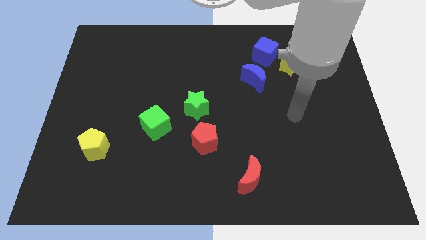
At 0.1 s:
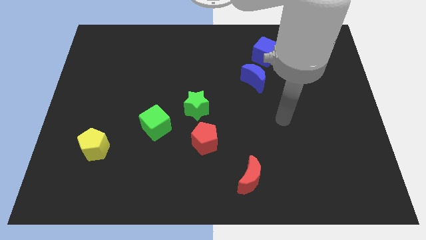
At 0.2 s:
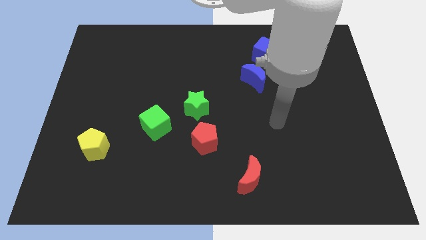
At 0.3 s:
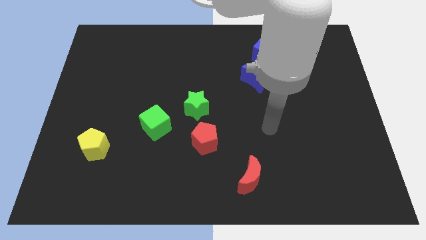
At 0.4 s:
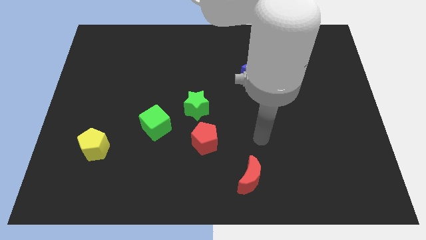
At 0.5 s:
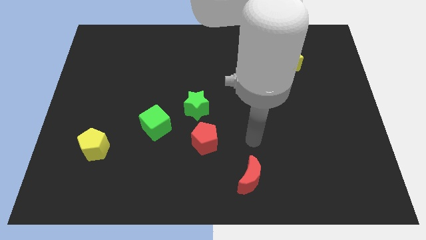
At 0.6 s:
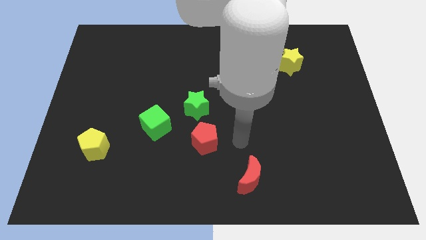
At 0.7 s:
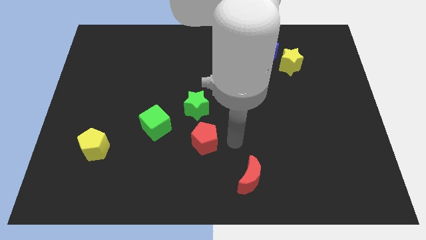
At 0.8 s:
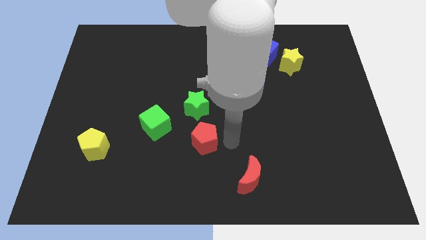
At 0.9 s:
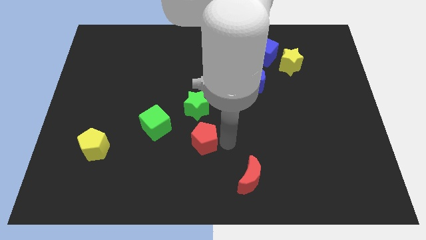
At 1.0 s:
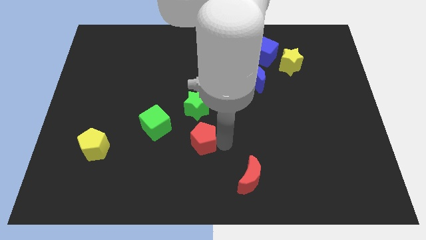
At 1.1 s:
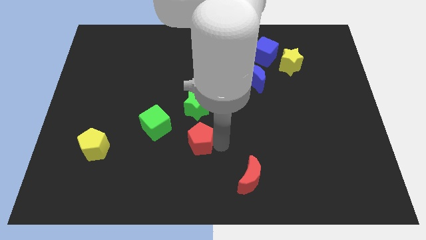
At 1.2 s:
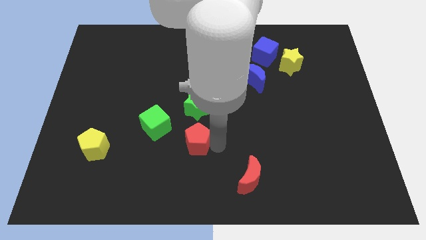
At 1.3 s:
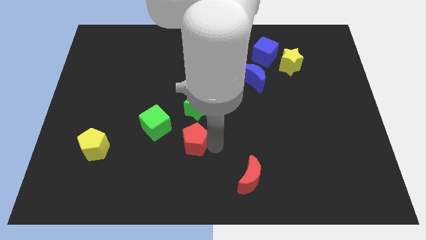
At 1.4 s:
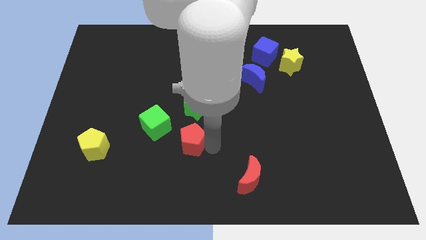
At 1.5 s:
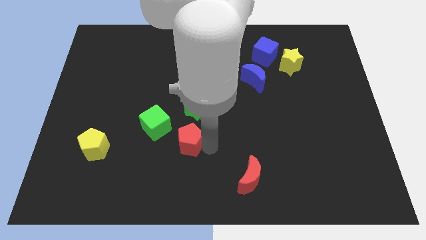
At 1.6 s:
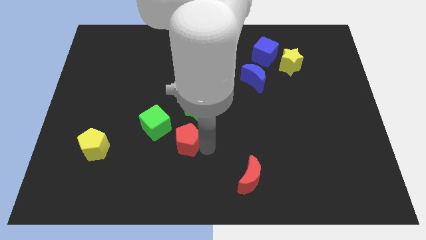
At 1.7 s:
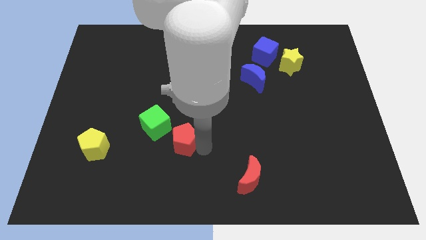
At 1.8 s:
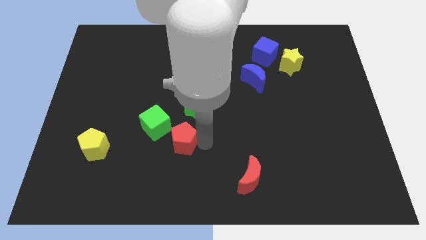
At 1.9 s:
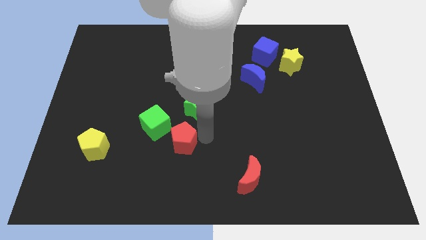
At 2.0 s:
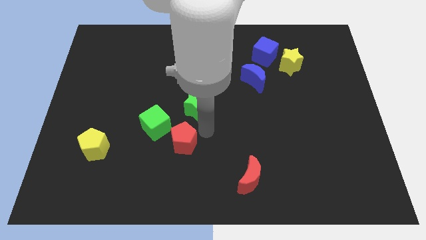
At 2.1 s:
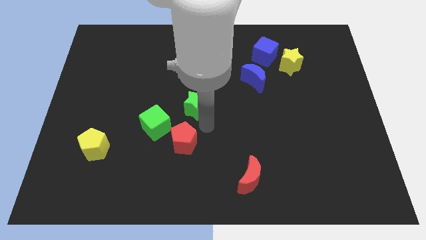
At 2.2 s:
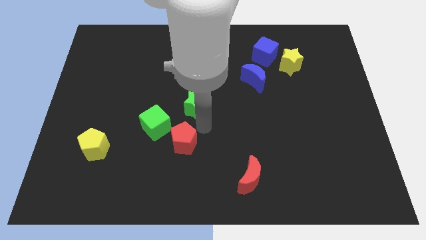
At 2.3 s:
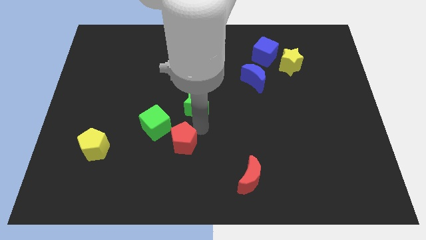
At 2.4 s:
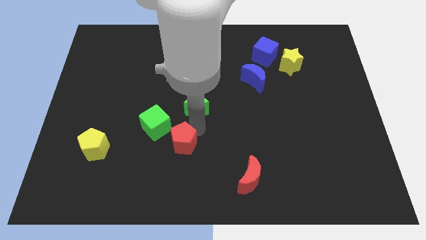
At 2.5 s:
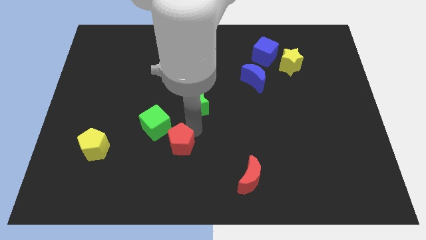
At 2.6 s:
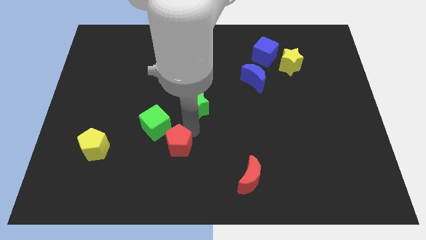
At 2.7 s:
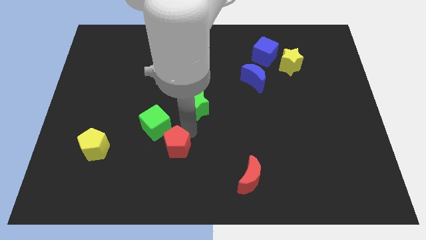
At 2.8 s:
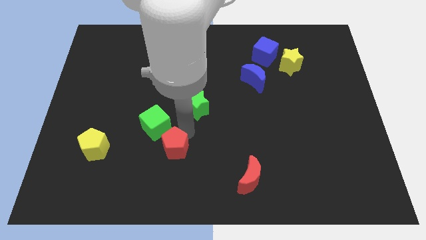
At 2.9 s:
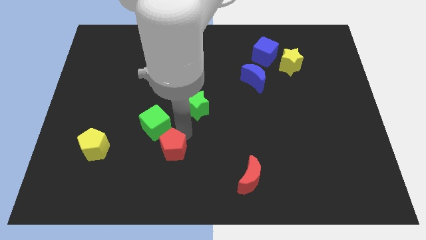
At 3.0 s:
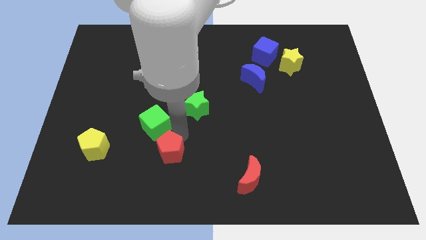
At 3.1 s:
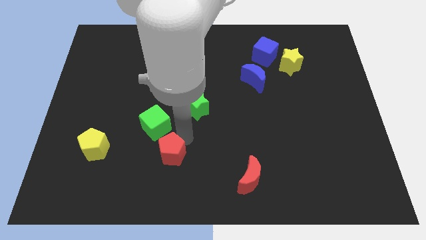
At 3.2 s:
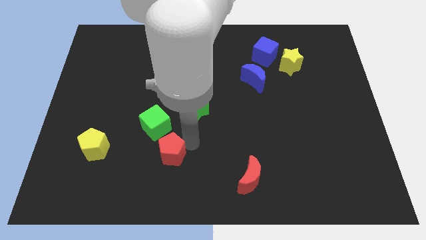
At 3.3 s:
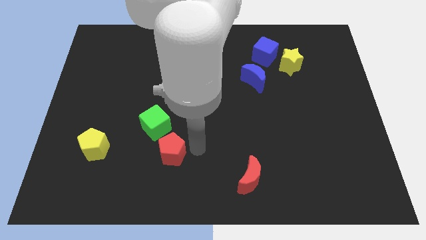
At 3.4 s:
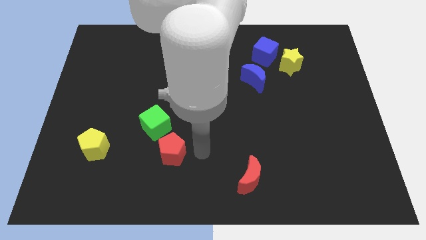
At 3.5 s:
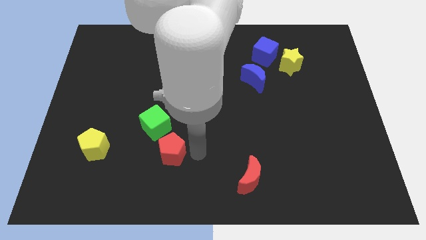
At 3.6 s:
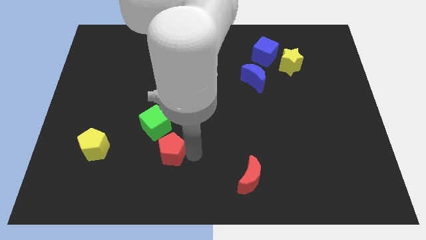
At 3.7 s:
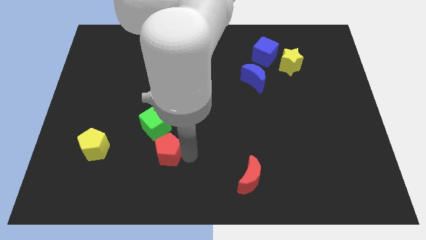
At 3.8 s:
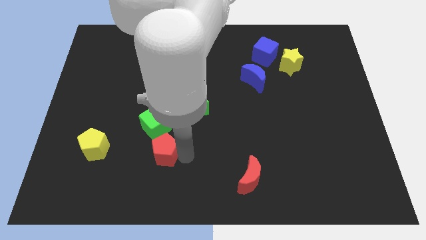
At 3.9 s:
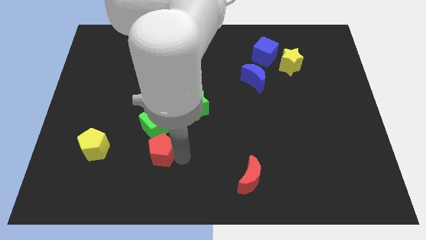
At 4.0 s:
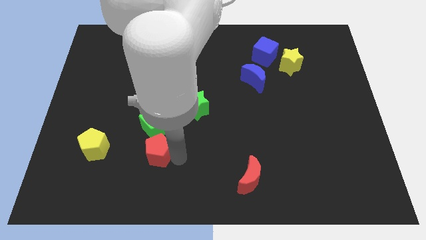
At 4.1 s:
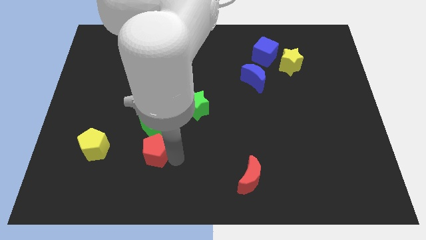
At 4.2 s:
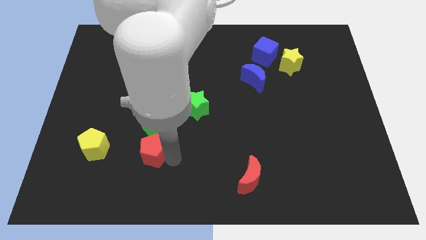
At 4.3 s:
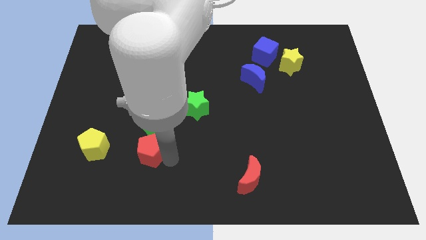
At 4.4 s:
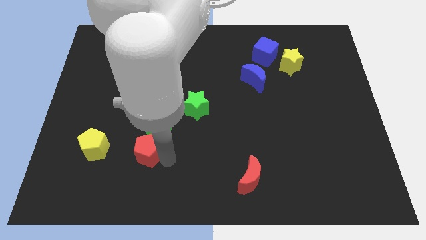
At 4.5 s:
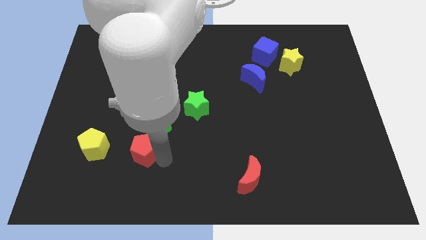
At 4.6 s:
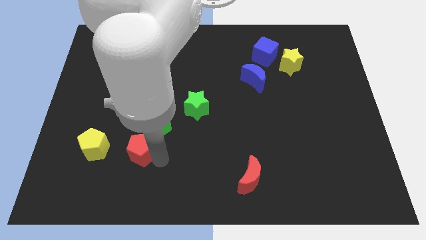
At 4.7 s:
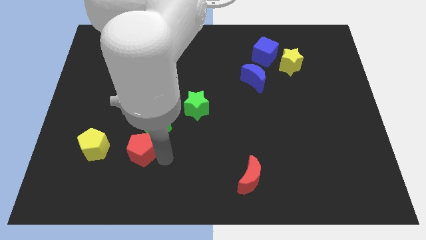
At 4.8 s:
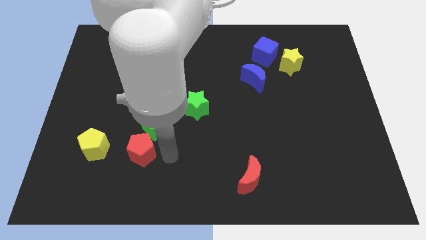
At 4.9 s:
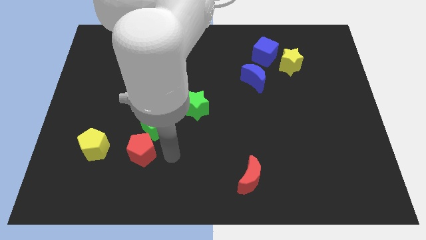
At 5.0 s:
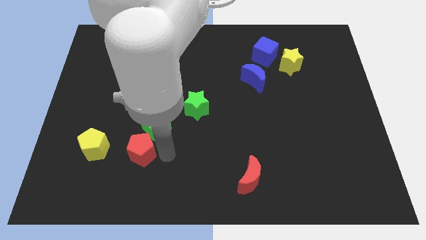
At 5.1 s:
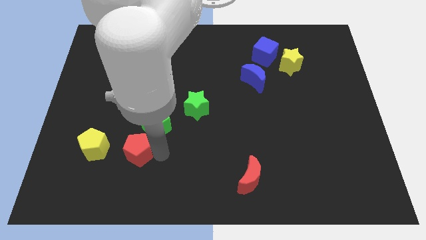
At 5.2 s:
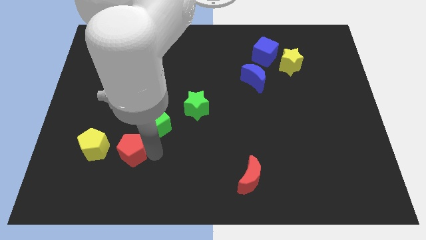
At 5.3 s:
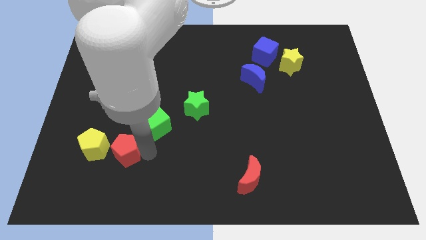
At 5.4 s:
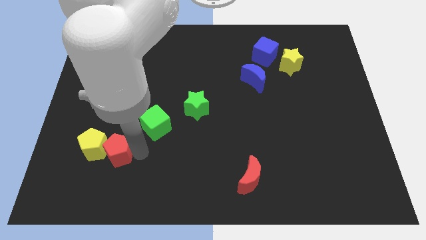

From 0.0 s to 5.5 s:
move the red pentagon towards the yellow pentagon

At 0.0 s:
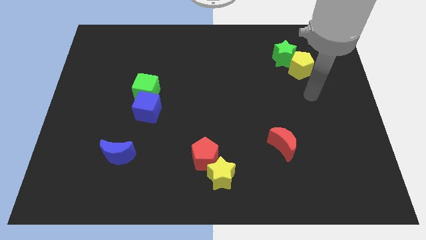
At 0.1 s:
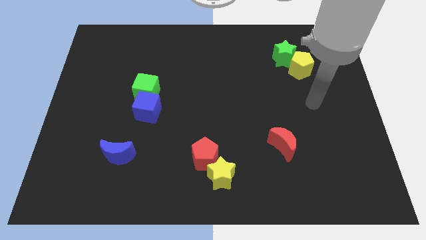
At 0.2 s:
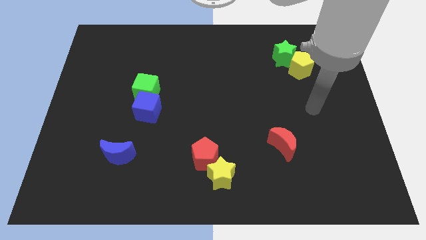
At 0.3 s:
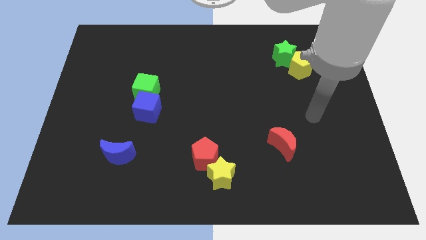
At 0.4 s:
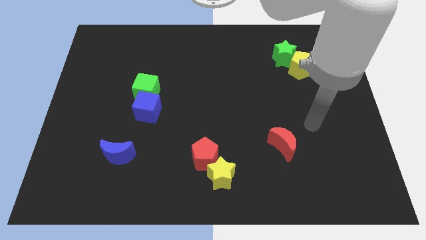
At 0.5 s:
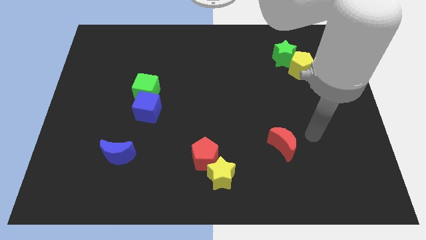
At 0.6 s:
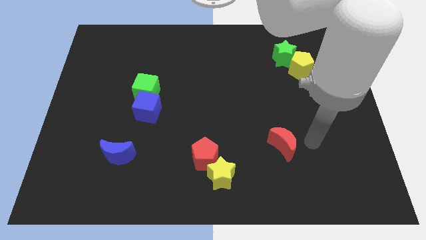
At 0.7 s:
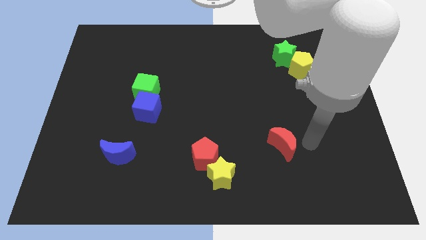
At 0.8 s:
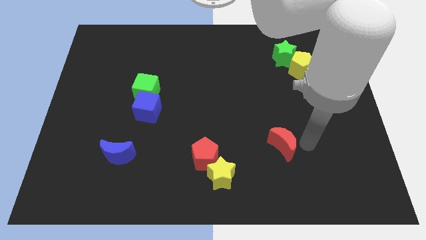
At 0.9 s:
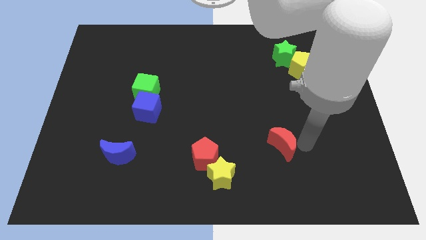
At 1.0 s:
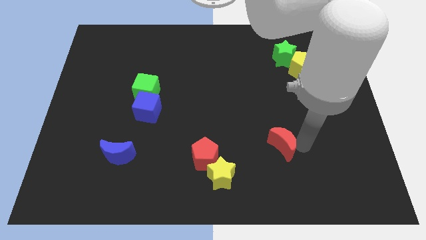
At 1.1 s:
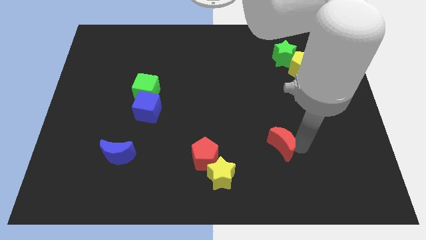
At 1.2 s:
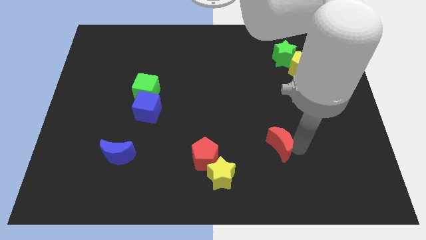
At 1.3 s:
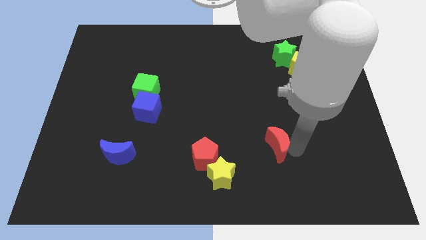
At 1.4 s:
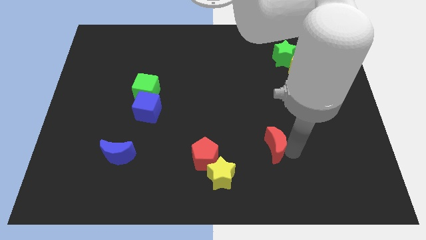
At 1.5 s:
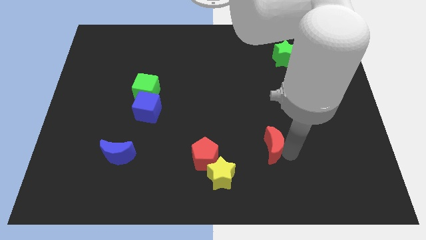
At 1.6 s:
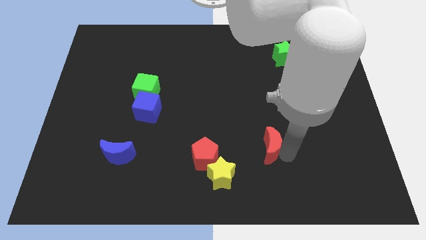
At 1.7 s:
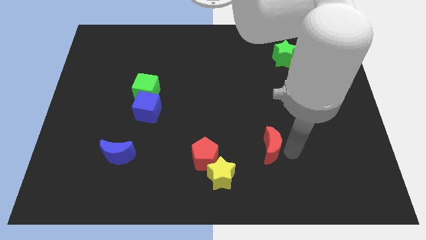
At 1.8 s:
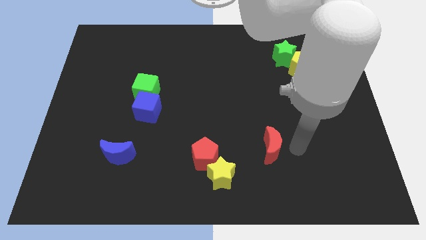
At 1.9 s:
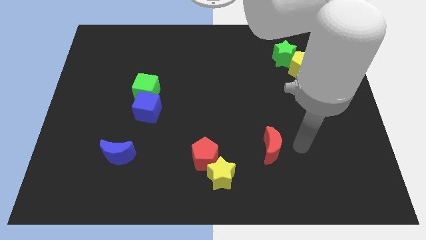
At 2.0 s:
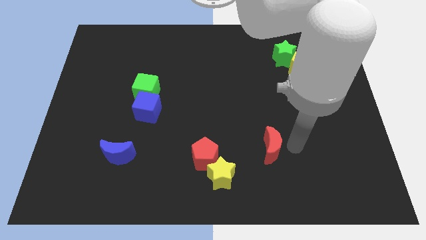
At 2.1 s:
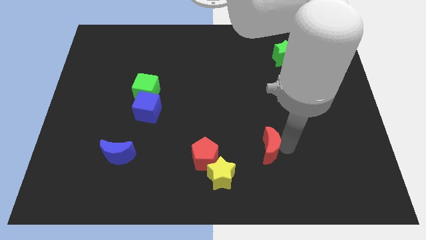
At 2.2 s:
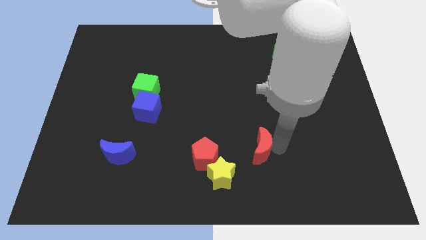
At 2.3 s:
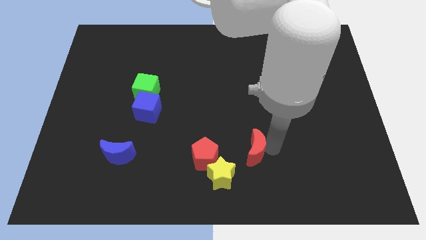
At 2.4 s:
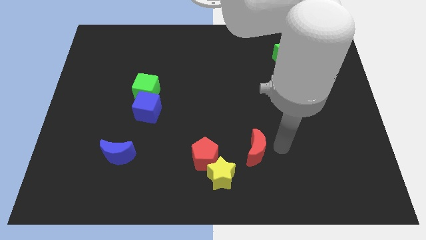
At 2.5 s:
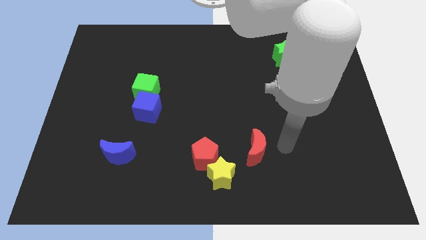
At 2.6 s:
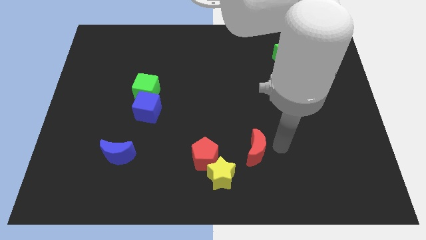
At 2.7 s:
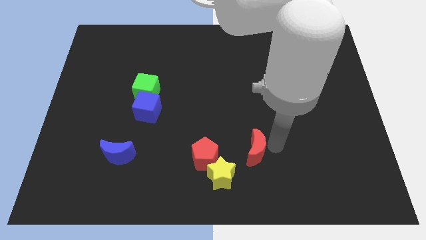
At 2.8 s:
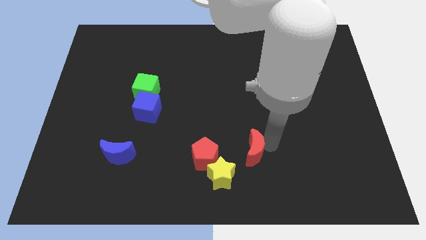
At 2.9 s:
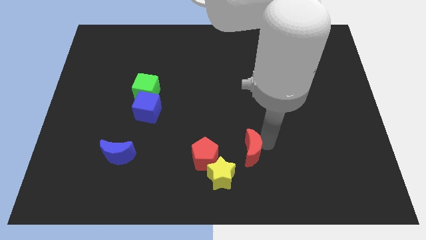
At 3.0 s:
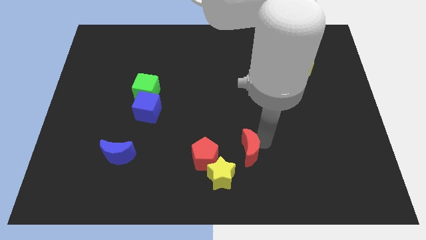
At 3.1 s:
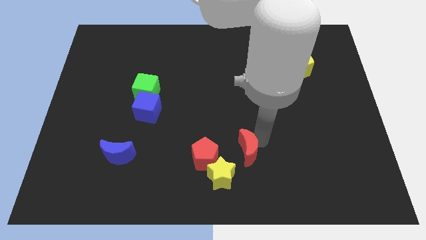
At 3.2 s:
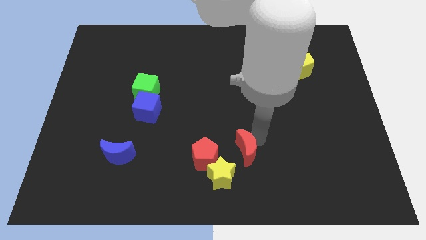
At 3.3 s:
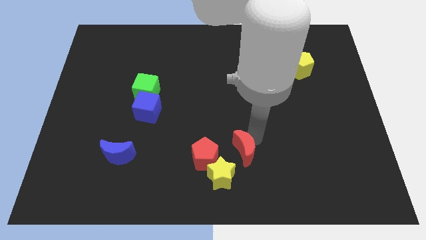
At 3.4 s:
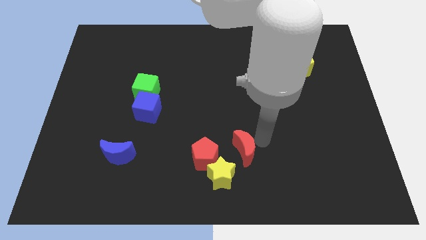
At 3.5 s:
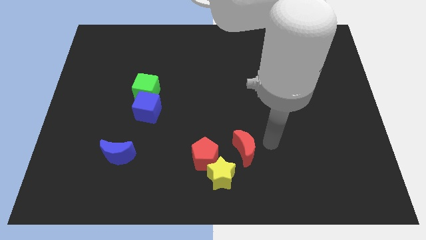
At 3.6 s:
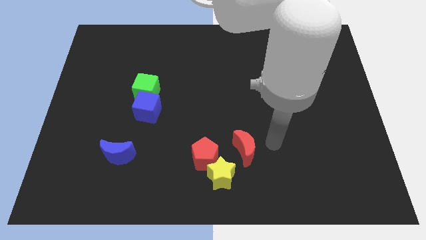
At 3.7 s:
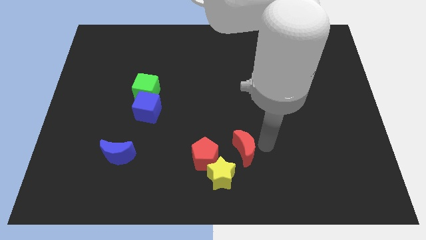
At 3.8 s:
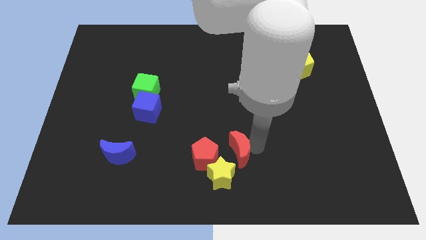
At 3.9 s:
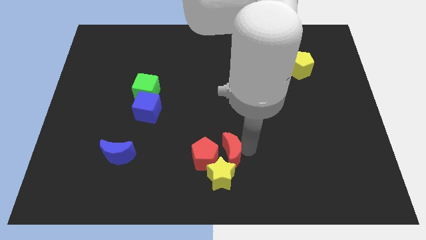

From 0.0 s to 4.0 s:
push the red moon next to the red pentagon
